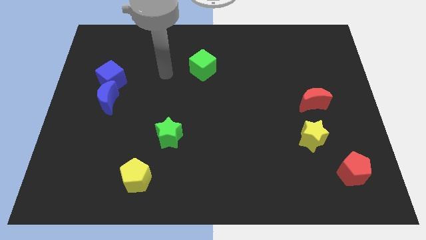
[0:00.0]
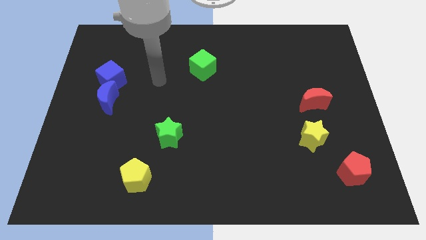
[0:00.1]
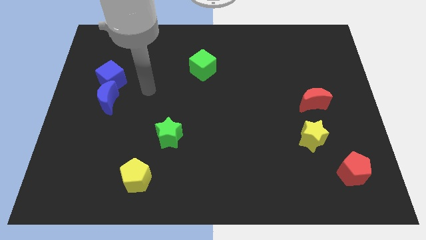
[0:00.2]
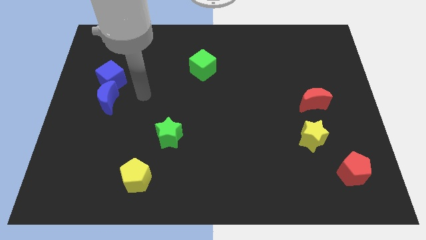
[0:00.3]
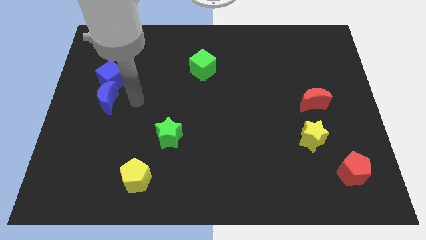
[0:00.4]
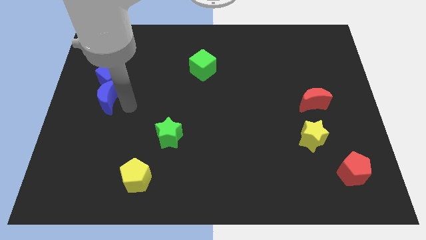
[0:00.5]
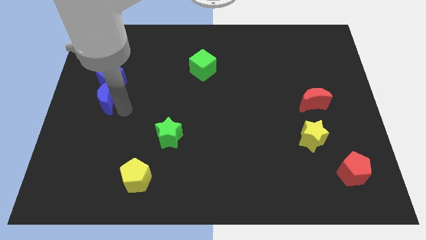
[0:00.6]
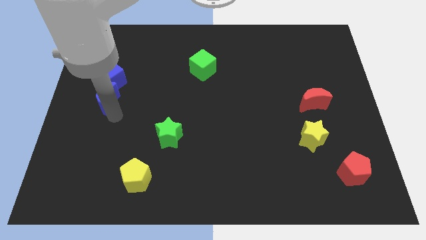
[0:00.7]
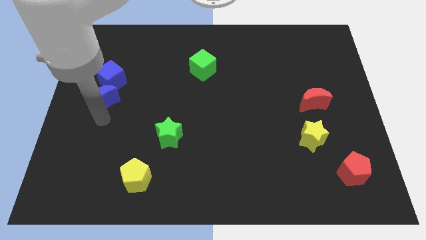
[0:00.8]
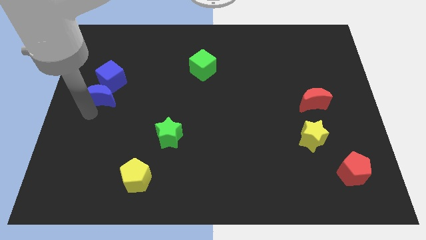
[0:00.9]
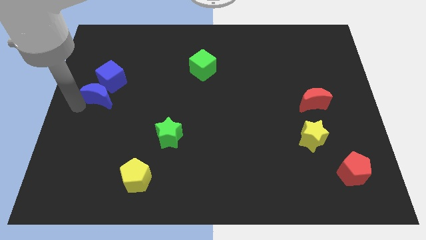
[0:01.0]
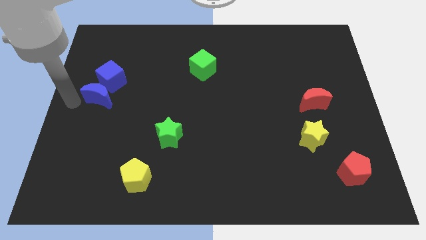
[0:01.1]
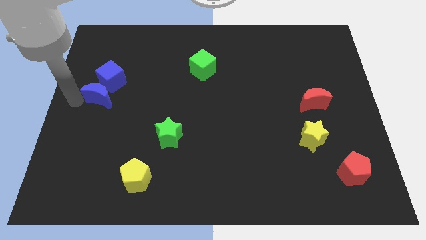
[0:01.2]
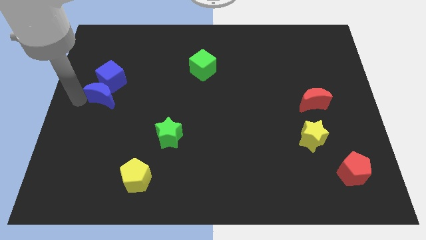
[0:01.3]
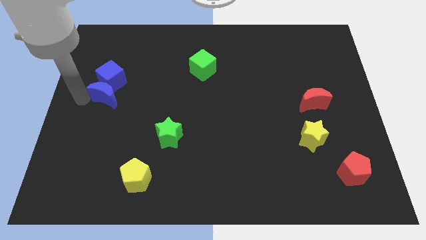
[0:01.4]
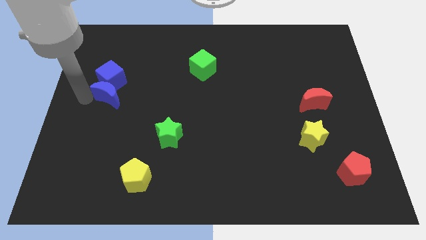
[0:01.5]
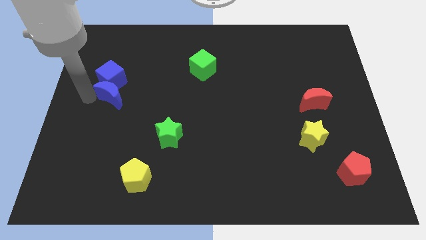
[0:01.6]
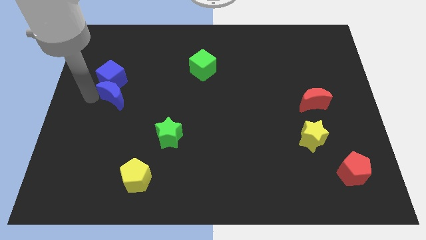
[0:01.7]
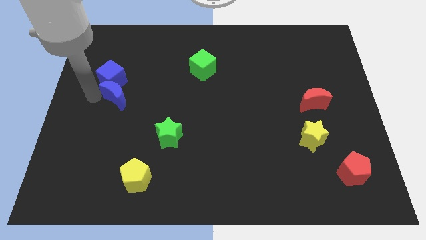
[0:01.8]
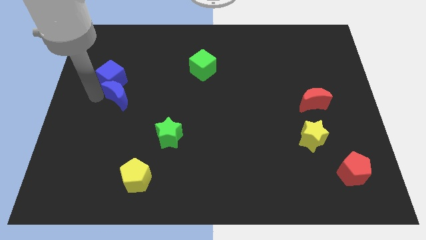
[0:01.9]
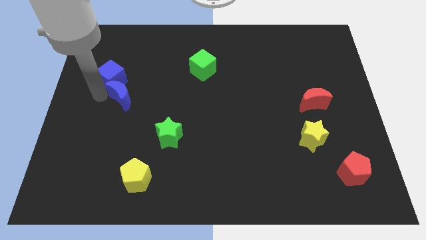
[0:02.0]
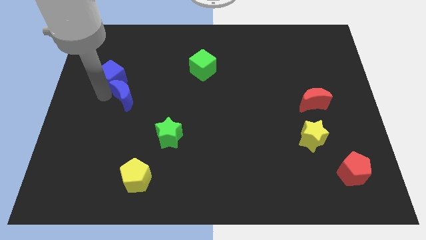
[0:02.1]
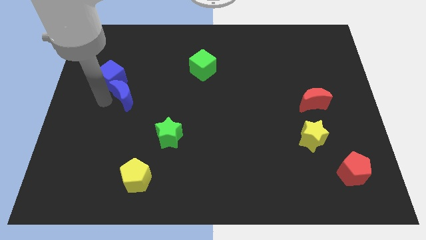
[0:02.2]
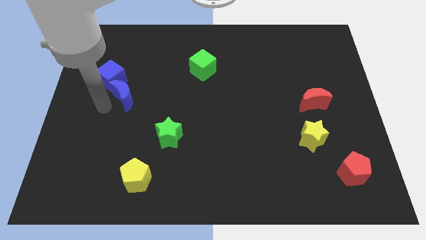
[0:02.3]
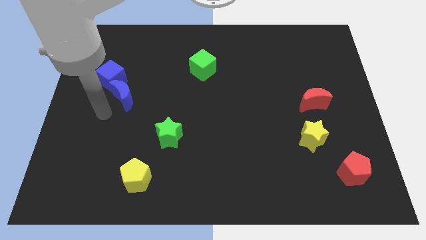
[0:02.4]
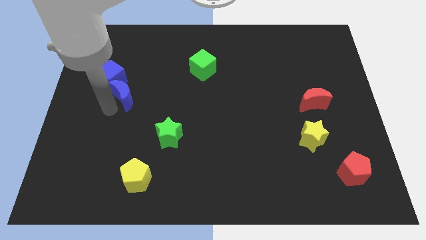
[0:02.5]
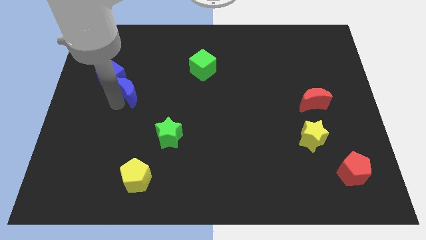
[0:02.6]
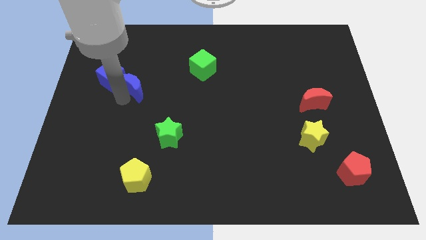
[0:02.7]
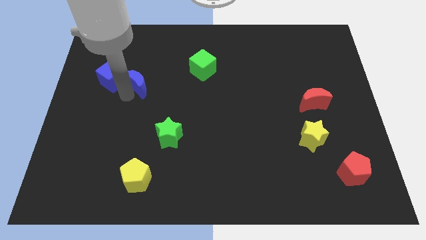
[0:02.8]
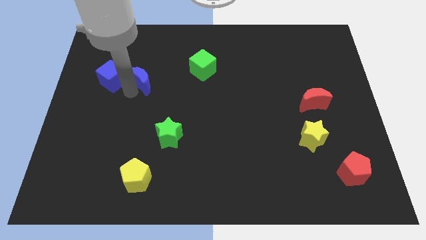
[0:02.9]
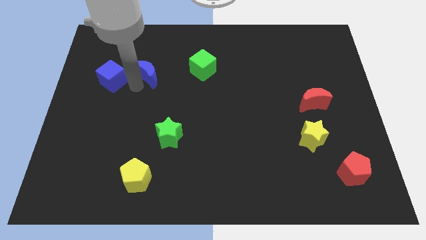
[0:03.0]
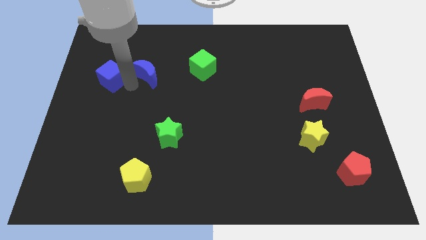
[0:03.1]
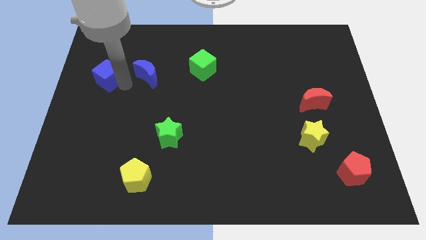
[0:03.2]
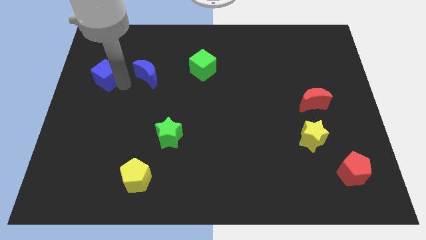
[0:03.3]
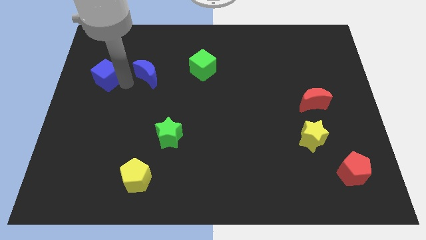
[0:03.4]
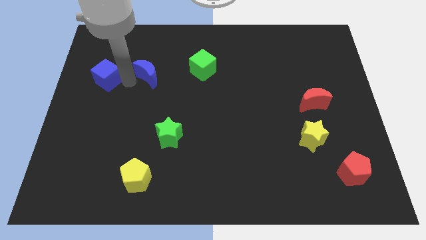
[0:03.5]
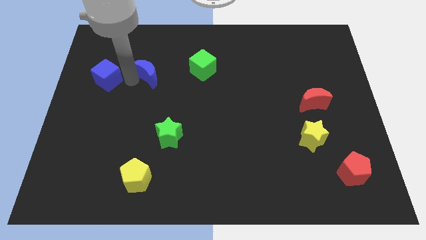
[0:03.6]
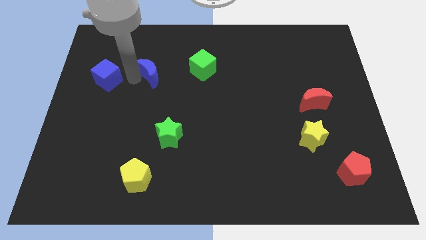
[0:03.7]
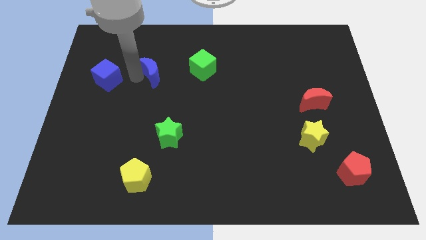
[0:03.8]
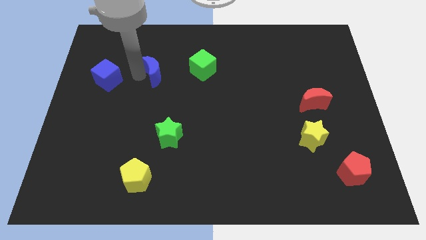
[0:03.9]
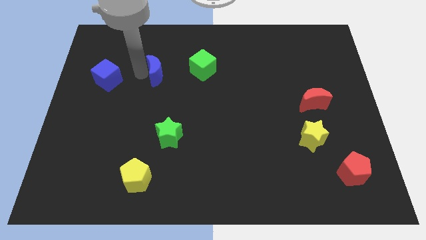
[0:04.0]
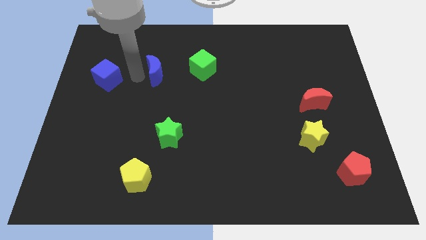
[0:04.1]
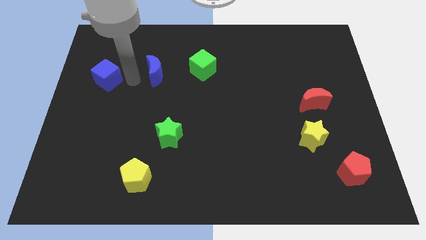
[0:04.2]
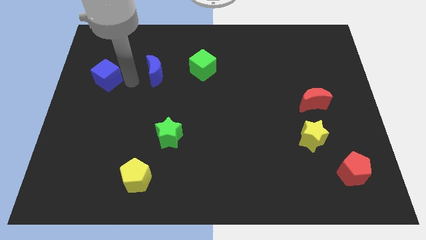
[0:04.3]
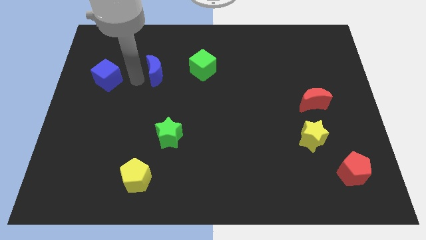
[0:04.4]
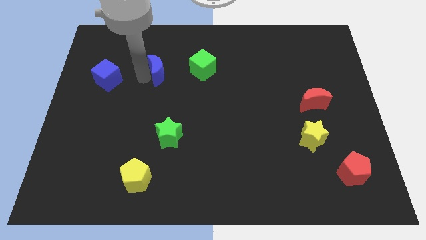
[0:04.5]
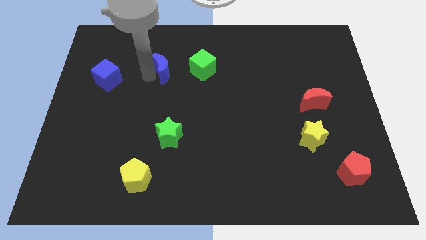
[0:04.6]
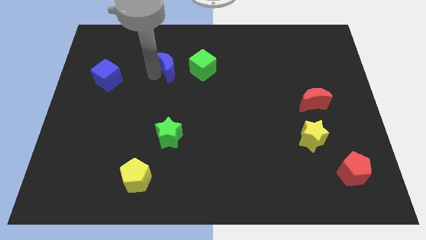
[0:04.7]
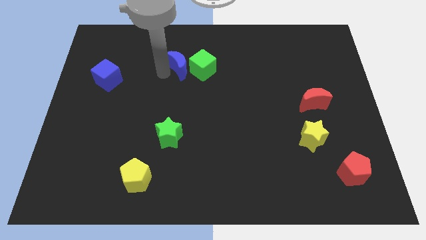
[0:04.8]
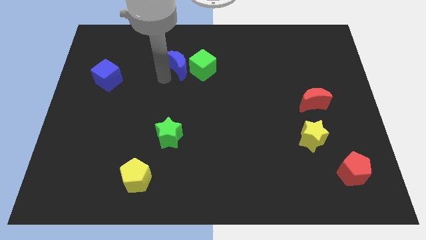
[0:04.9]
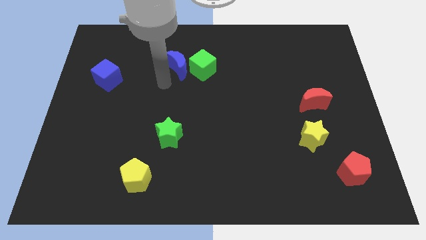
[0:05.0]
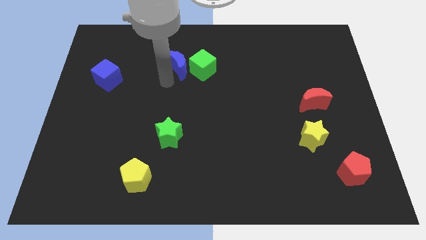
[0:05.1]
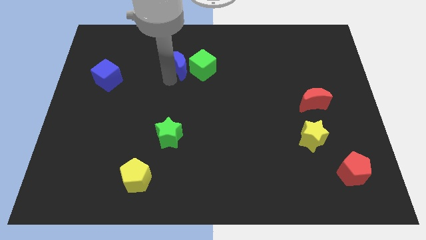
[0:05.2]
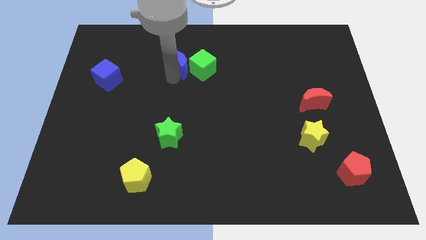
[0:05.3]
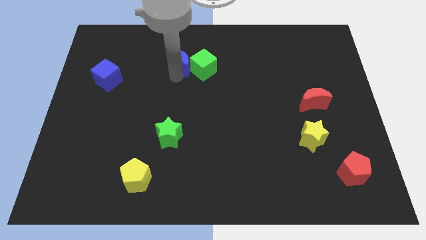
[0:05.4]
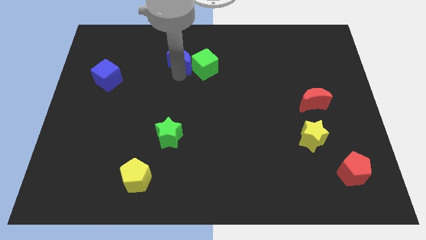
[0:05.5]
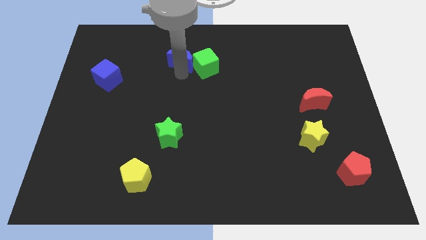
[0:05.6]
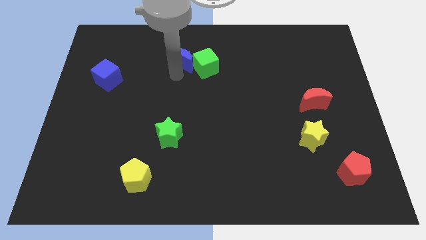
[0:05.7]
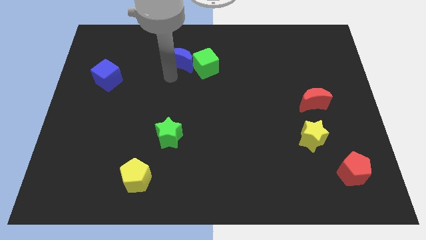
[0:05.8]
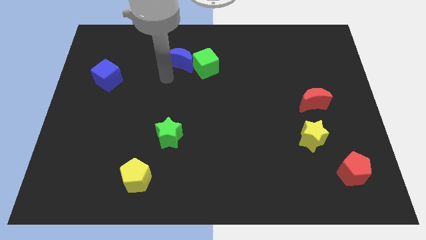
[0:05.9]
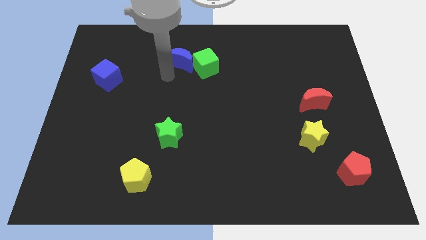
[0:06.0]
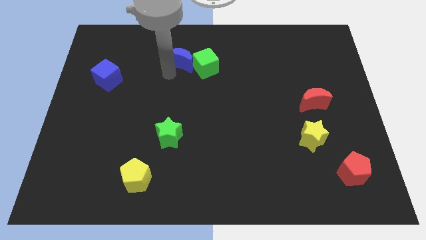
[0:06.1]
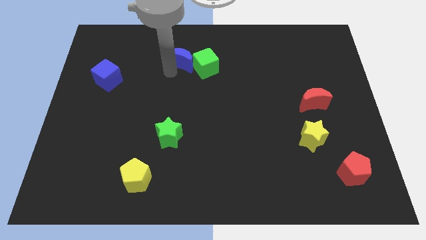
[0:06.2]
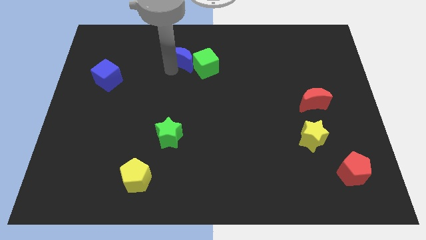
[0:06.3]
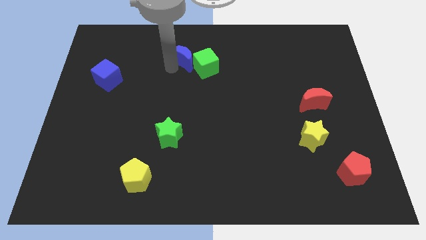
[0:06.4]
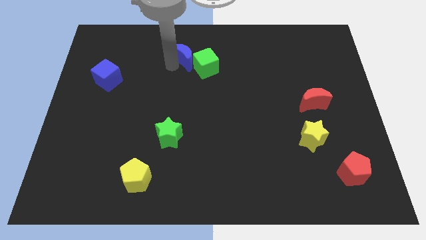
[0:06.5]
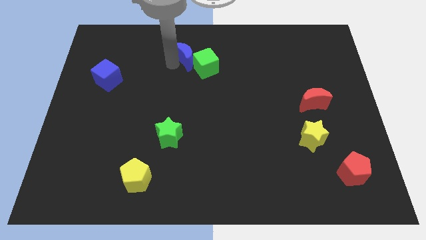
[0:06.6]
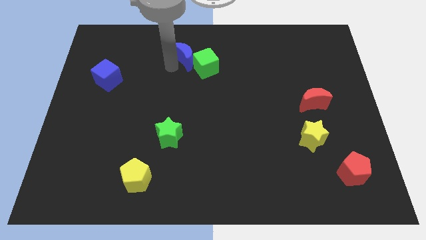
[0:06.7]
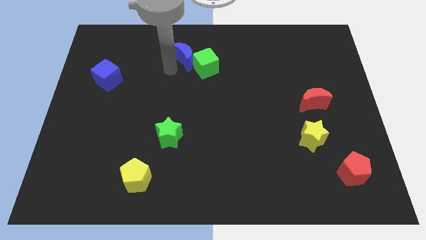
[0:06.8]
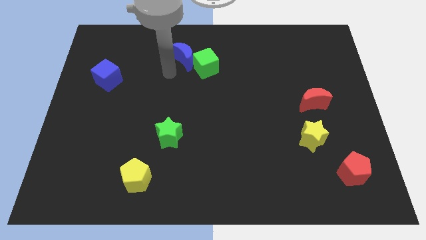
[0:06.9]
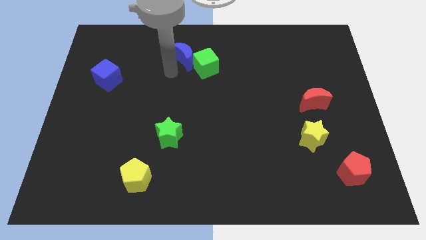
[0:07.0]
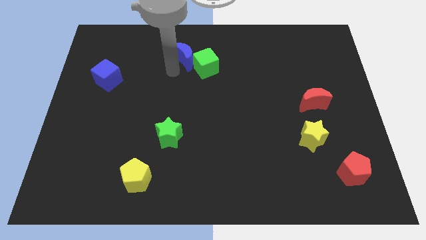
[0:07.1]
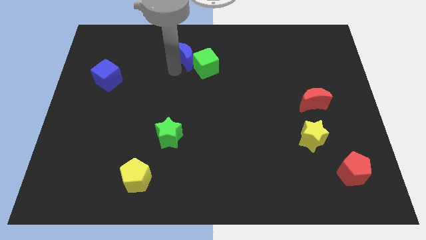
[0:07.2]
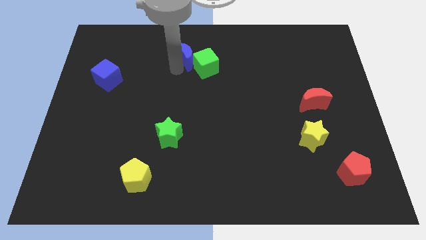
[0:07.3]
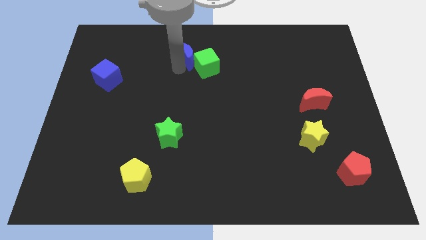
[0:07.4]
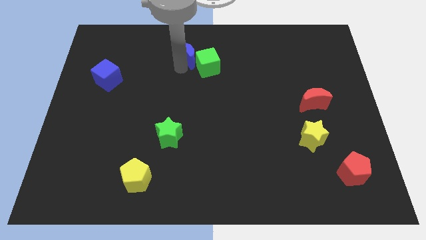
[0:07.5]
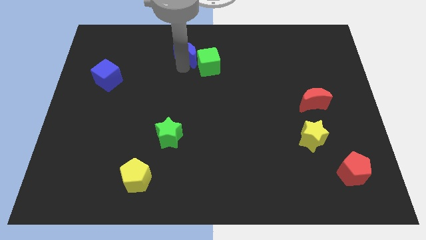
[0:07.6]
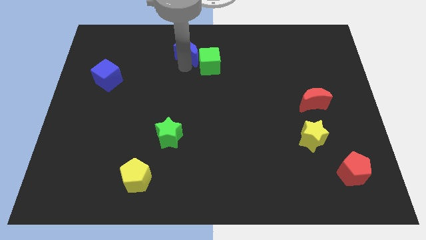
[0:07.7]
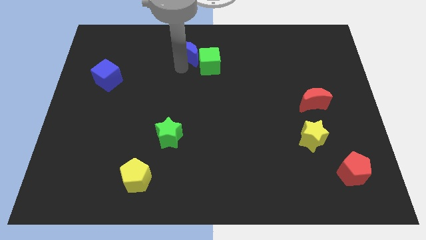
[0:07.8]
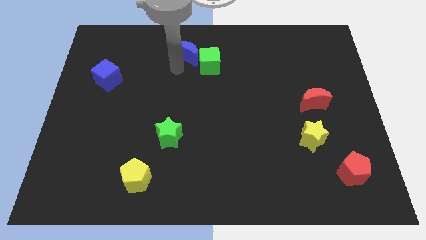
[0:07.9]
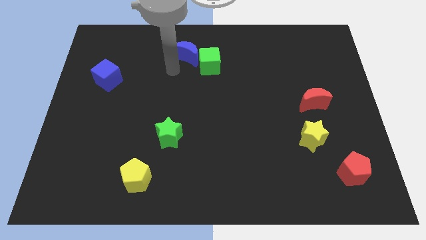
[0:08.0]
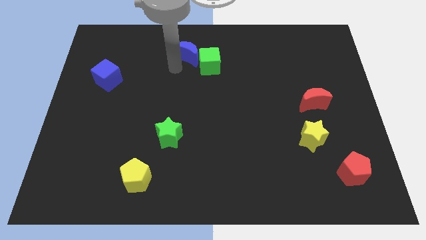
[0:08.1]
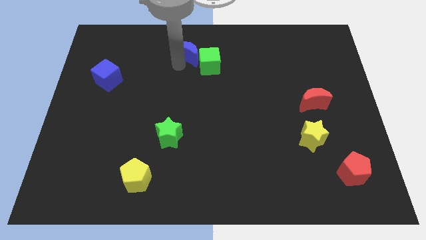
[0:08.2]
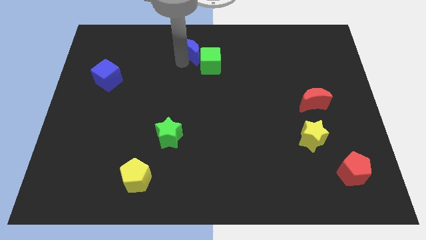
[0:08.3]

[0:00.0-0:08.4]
push the blue moon to the top side
